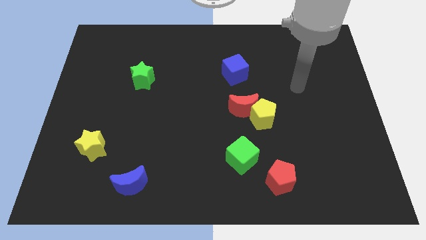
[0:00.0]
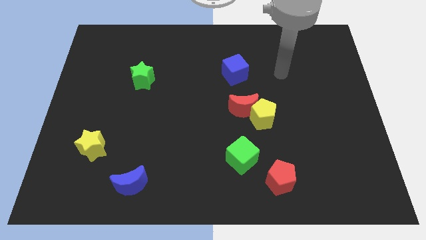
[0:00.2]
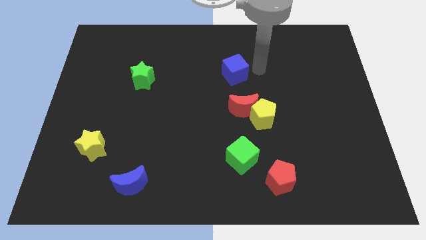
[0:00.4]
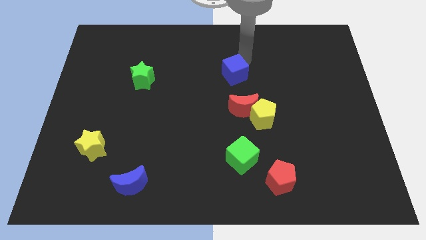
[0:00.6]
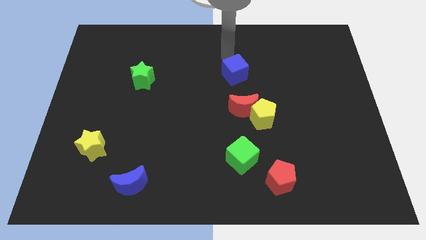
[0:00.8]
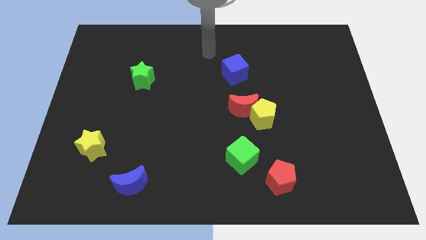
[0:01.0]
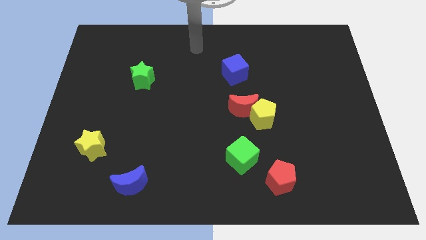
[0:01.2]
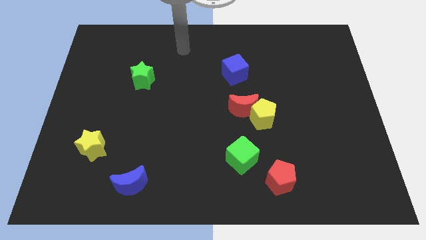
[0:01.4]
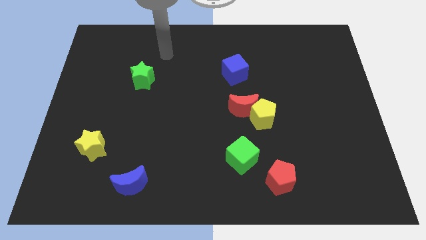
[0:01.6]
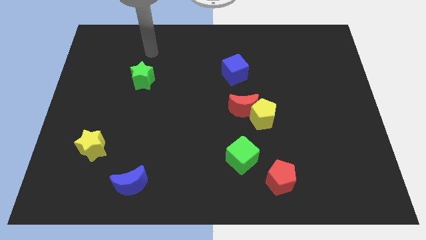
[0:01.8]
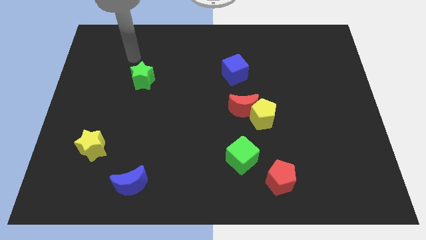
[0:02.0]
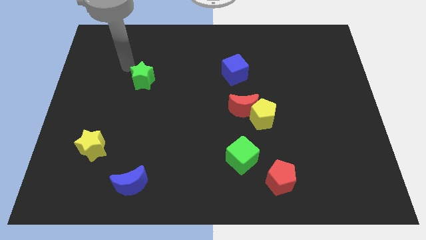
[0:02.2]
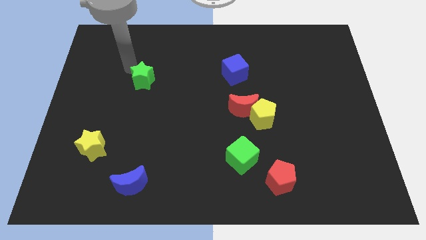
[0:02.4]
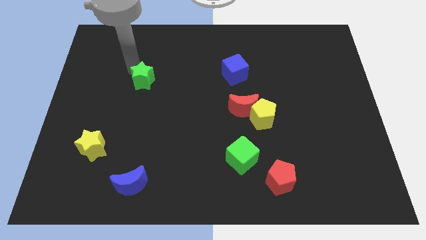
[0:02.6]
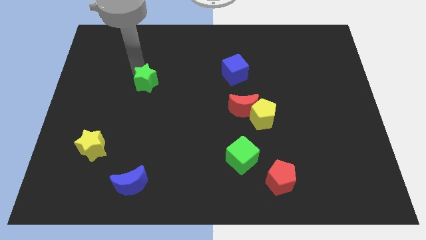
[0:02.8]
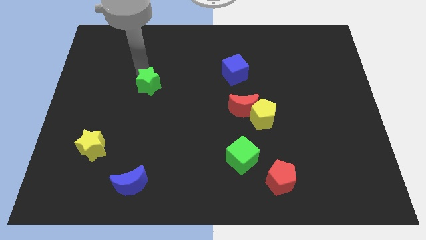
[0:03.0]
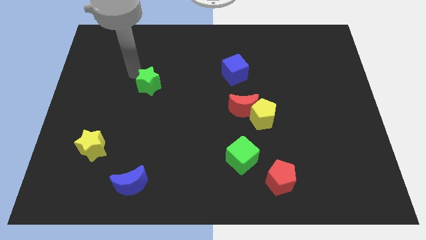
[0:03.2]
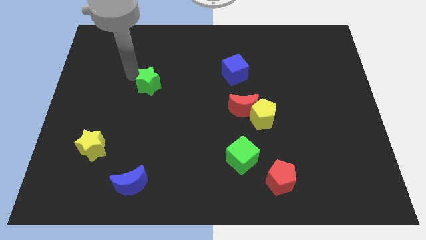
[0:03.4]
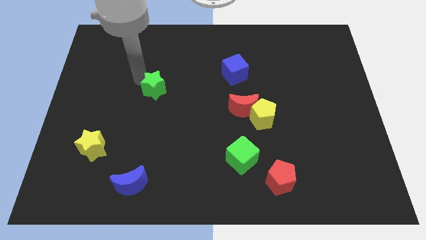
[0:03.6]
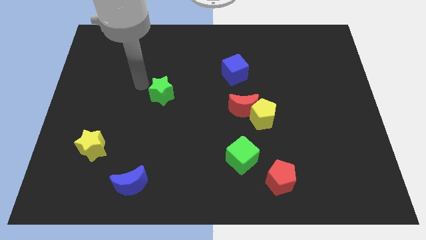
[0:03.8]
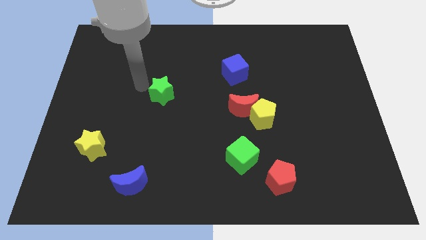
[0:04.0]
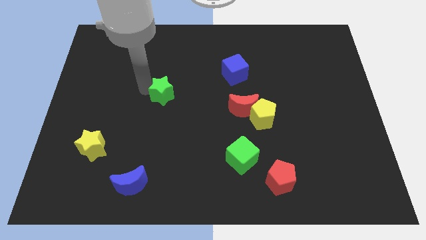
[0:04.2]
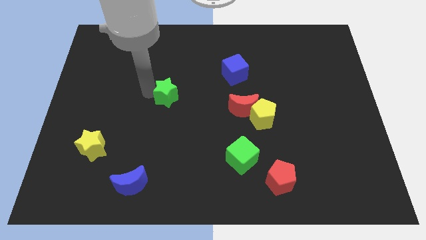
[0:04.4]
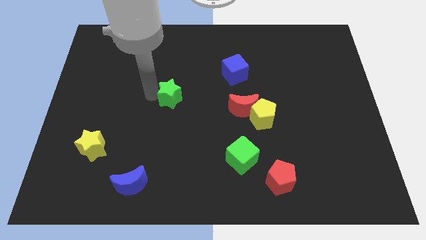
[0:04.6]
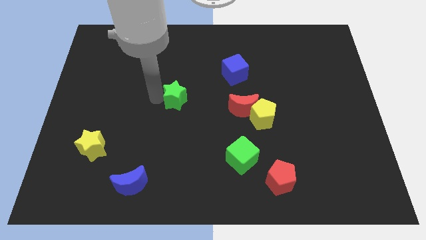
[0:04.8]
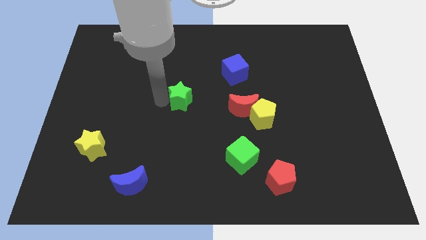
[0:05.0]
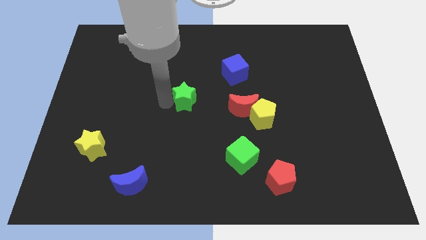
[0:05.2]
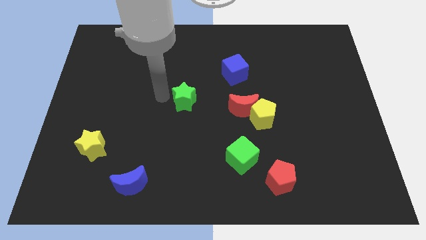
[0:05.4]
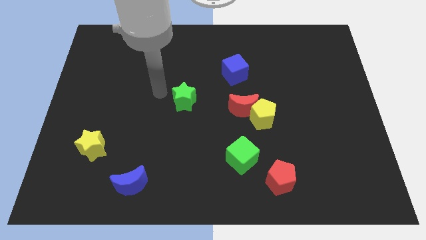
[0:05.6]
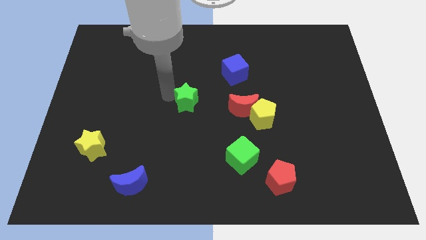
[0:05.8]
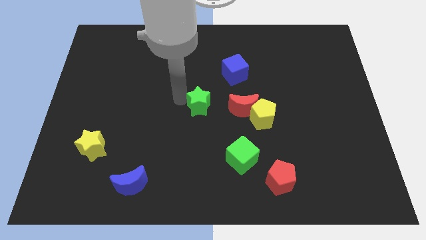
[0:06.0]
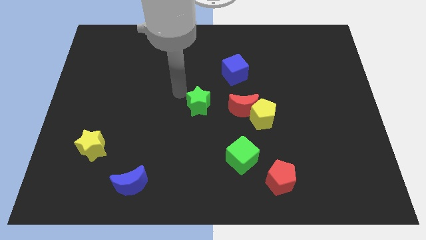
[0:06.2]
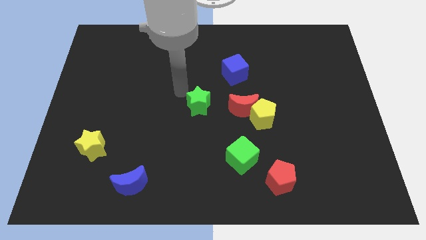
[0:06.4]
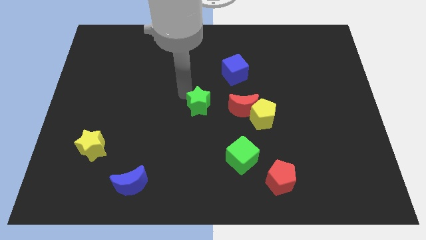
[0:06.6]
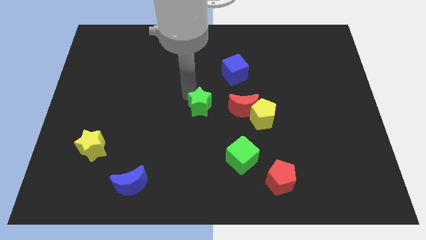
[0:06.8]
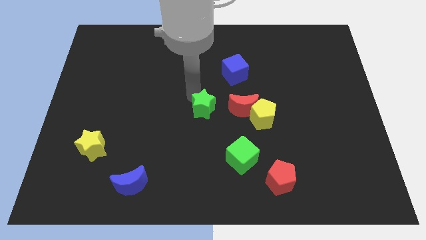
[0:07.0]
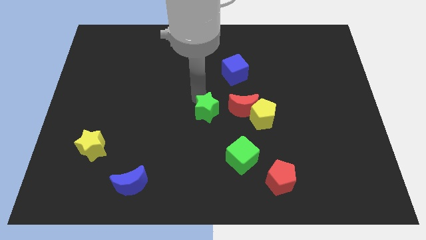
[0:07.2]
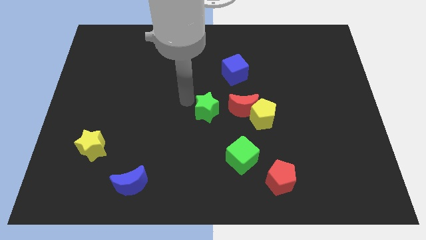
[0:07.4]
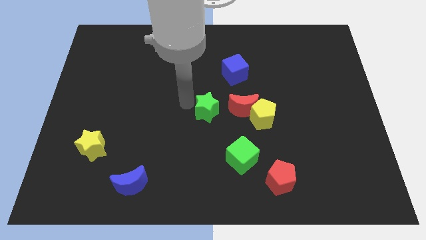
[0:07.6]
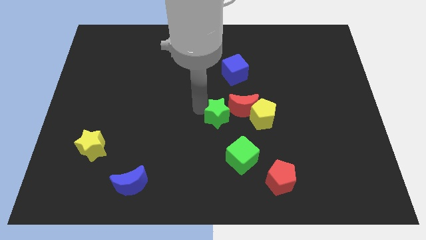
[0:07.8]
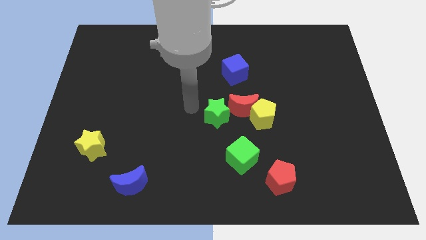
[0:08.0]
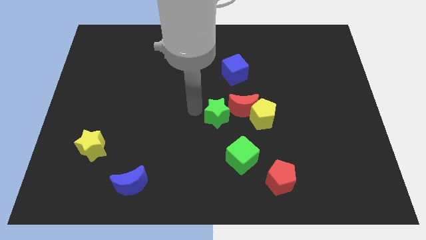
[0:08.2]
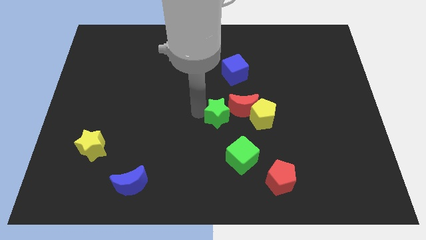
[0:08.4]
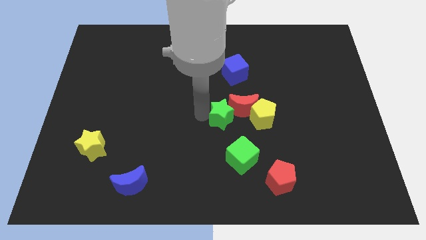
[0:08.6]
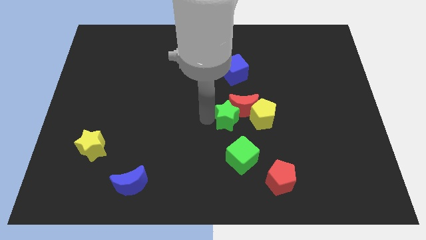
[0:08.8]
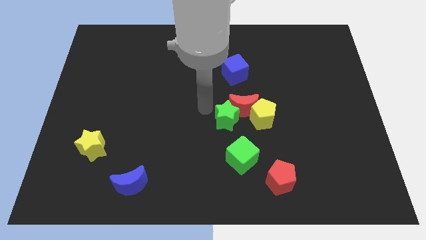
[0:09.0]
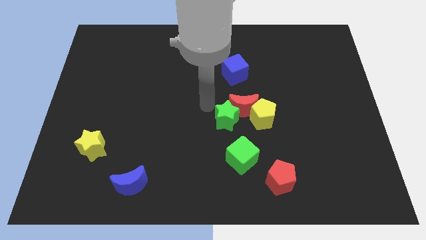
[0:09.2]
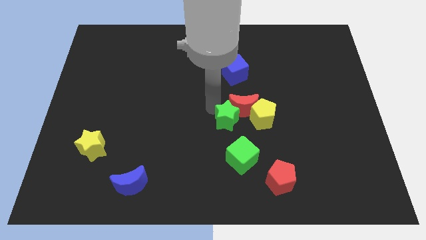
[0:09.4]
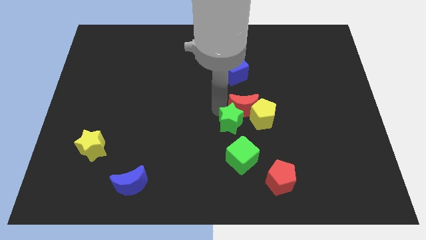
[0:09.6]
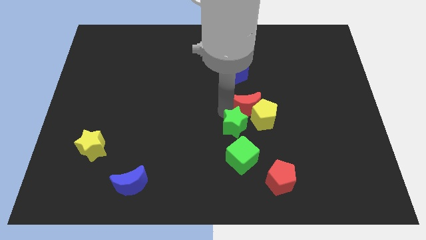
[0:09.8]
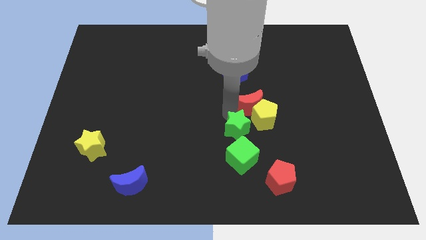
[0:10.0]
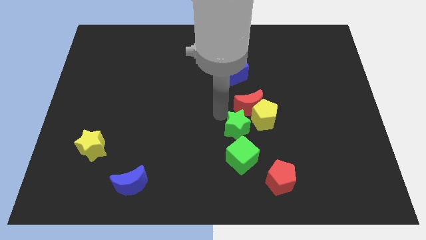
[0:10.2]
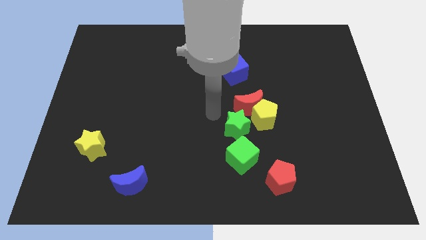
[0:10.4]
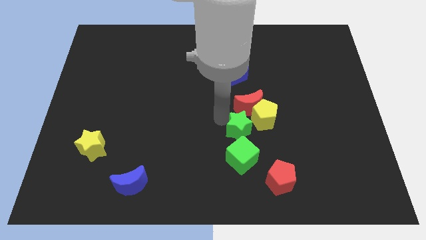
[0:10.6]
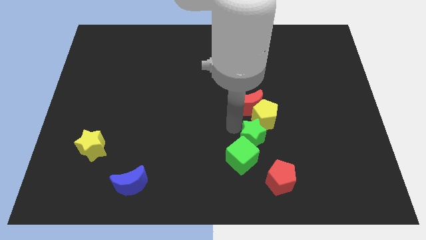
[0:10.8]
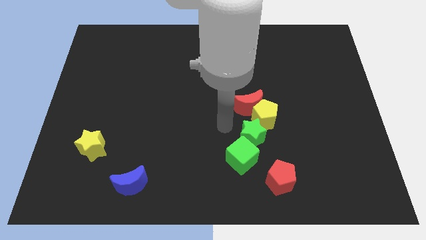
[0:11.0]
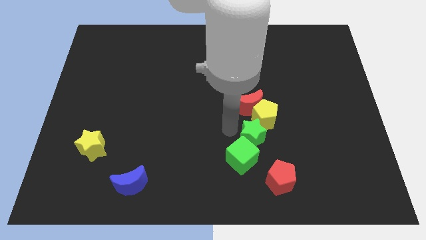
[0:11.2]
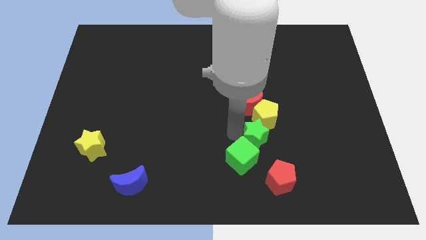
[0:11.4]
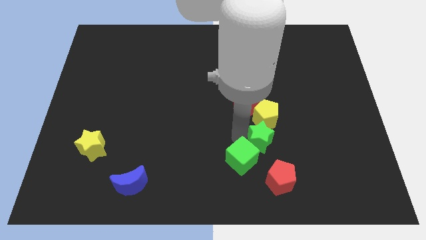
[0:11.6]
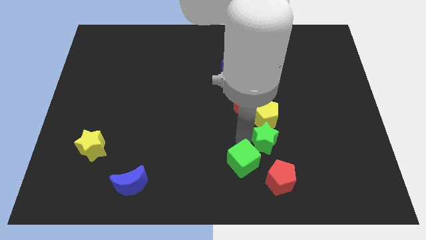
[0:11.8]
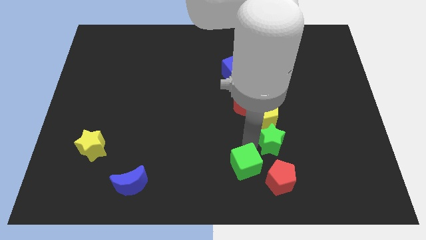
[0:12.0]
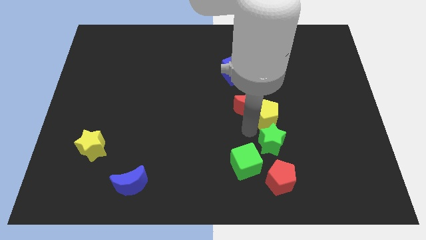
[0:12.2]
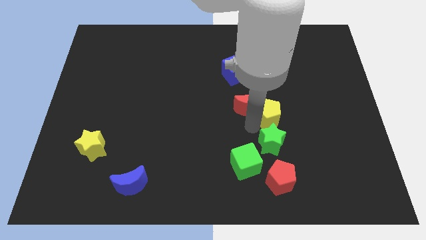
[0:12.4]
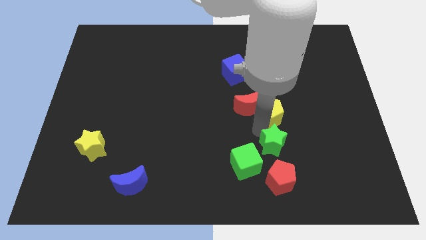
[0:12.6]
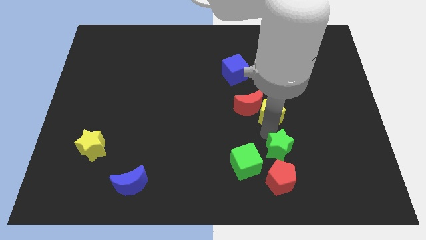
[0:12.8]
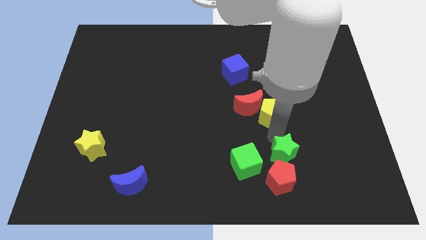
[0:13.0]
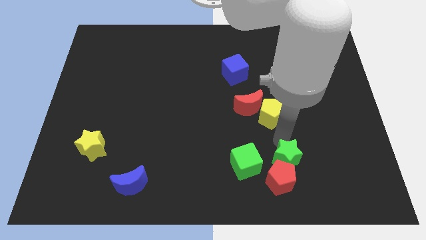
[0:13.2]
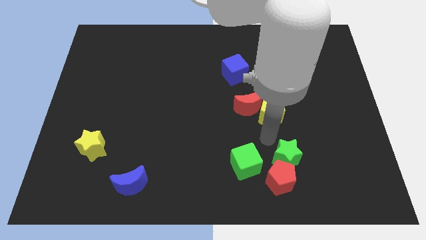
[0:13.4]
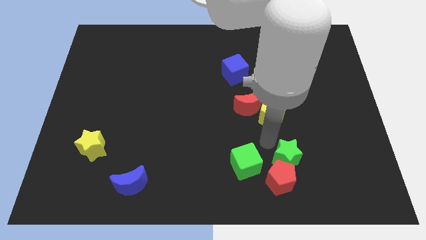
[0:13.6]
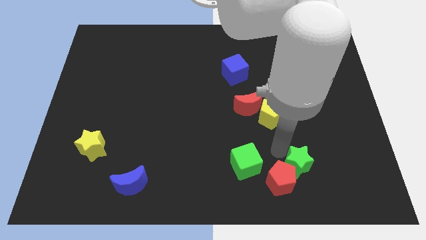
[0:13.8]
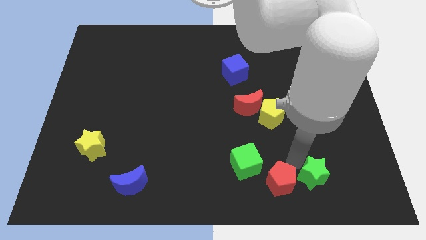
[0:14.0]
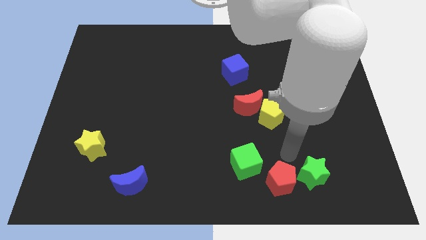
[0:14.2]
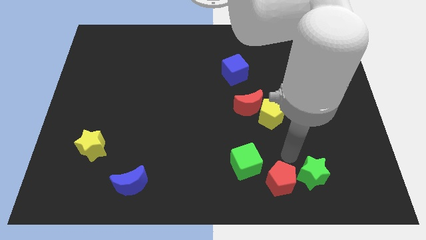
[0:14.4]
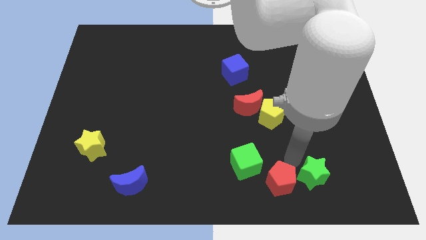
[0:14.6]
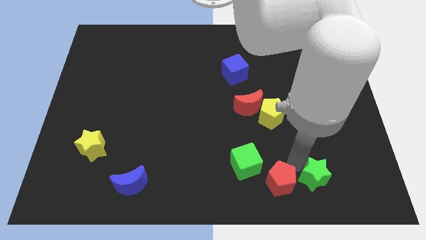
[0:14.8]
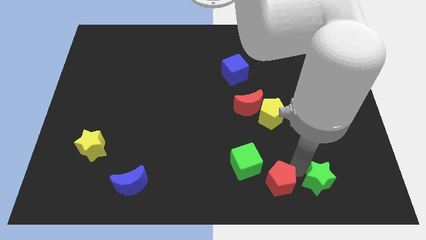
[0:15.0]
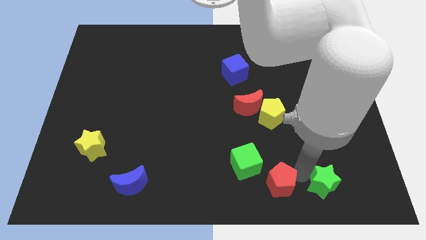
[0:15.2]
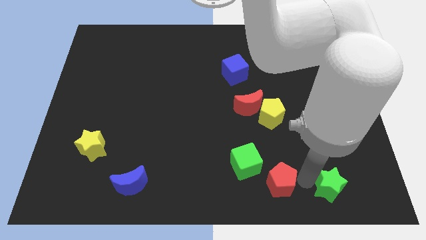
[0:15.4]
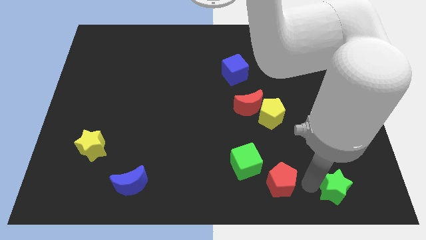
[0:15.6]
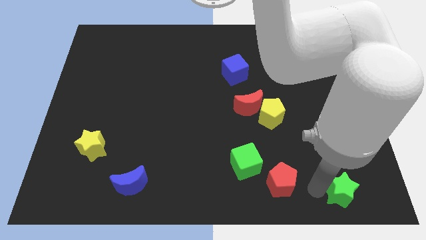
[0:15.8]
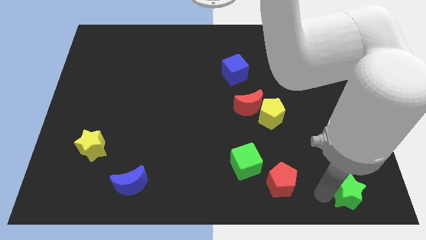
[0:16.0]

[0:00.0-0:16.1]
move the green star to the bottom right of the board
